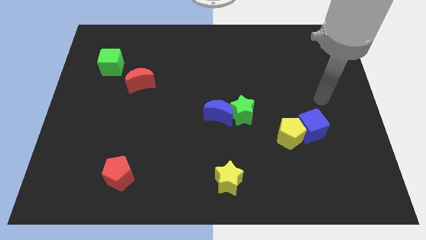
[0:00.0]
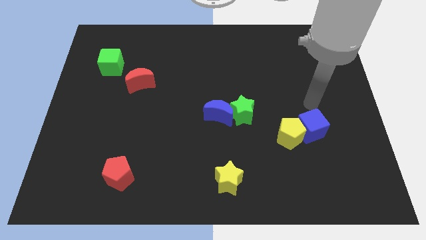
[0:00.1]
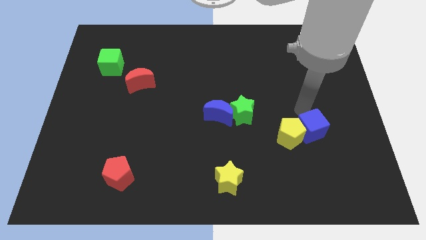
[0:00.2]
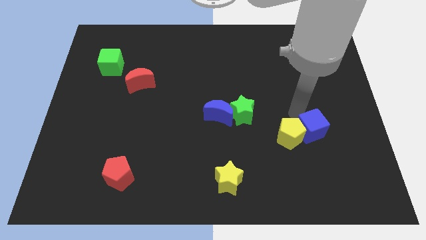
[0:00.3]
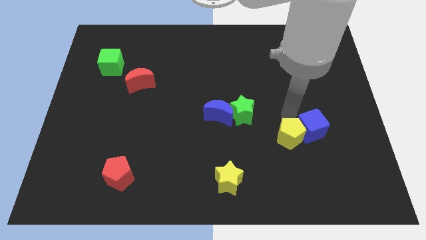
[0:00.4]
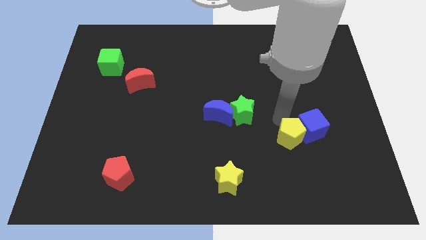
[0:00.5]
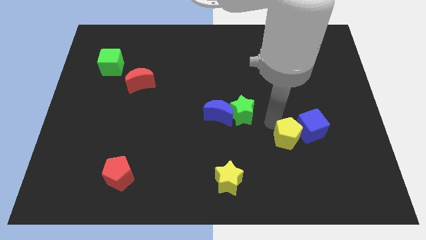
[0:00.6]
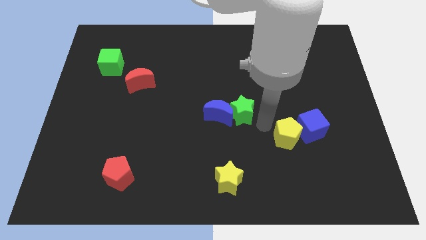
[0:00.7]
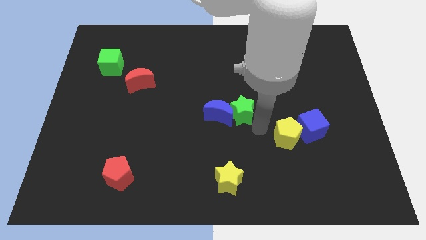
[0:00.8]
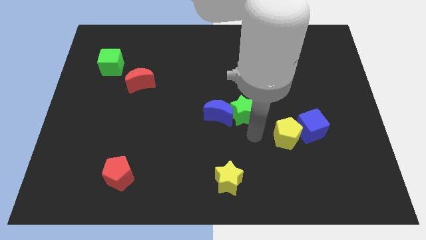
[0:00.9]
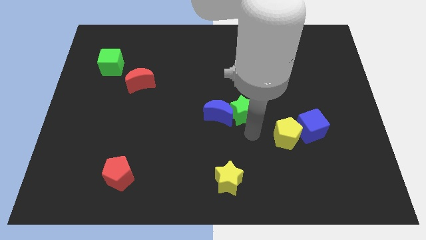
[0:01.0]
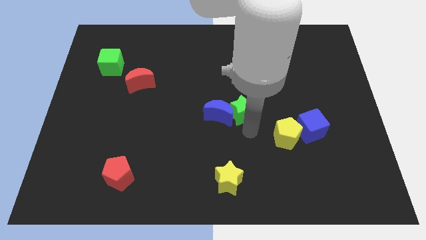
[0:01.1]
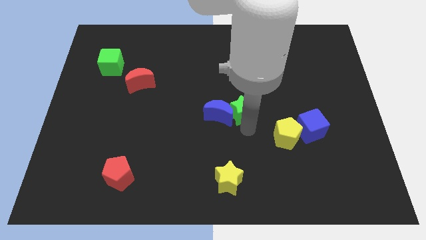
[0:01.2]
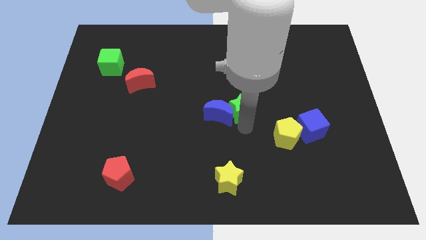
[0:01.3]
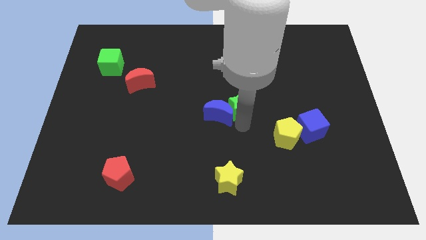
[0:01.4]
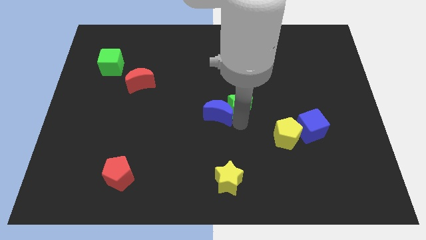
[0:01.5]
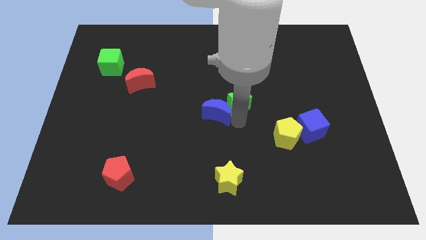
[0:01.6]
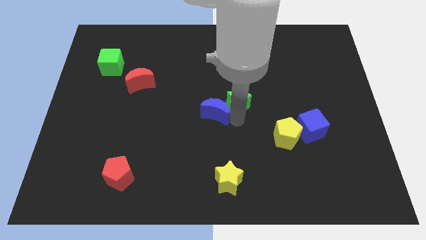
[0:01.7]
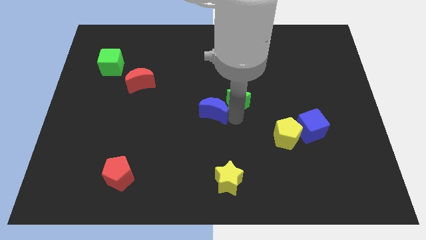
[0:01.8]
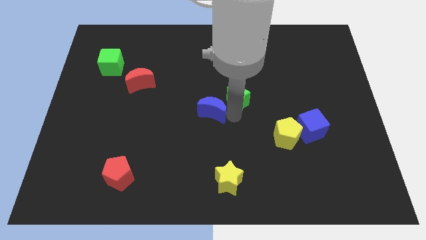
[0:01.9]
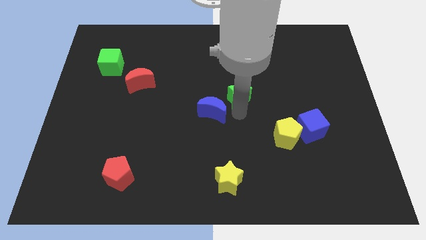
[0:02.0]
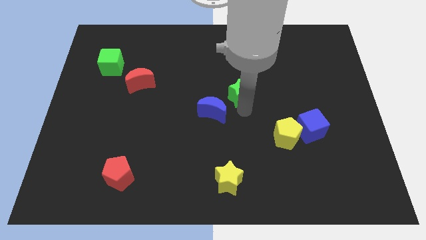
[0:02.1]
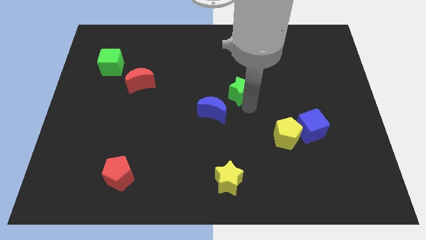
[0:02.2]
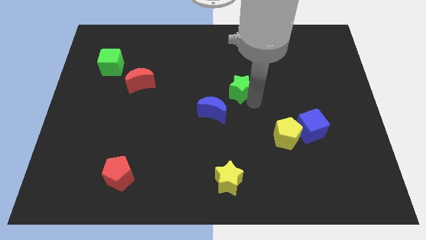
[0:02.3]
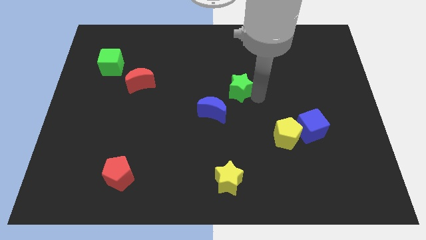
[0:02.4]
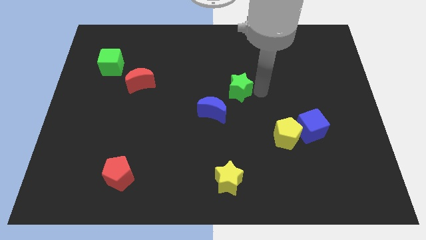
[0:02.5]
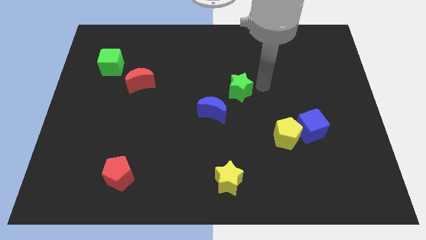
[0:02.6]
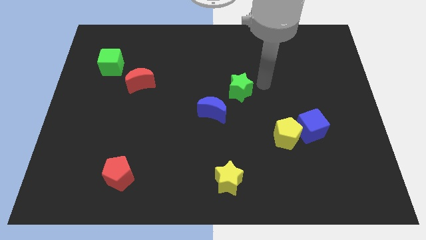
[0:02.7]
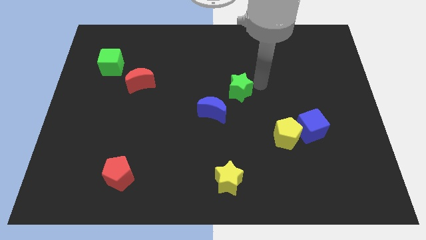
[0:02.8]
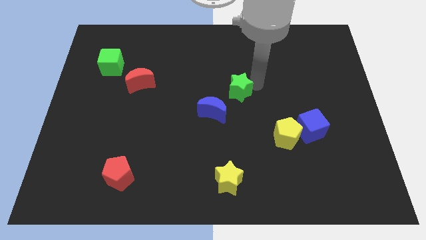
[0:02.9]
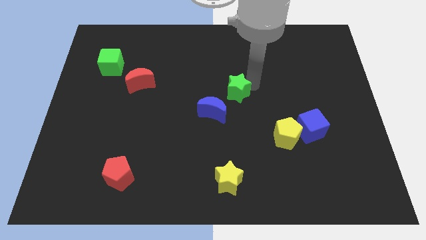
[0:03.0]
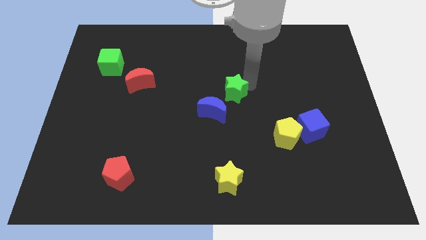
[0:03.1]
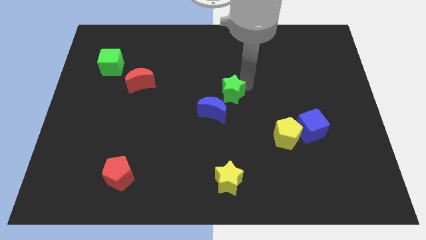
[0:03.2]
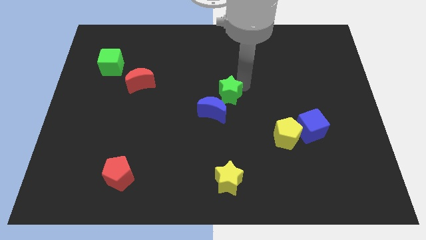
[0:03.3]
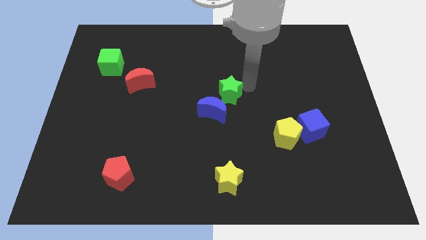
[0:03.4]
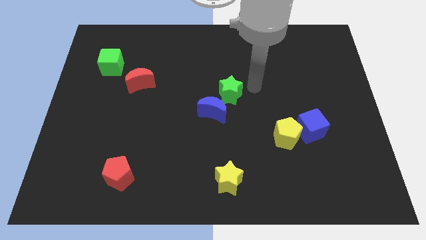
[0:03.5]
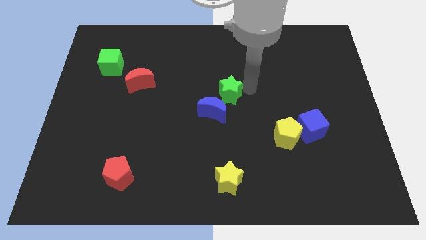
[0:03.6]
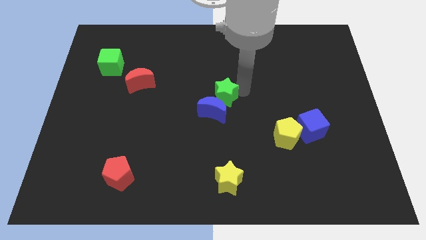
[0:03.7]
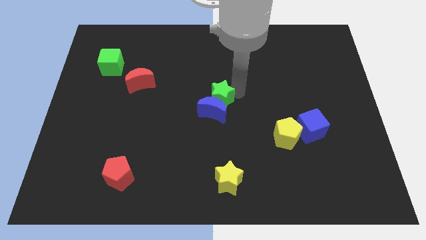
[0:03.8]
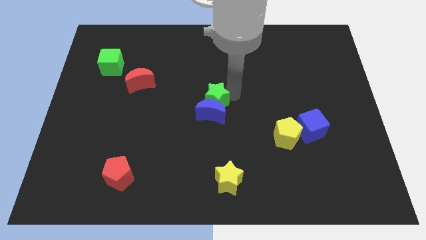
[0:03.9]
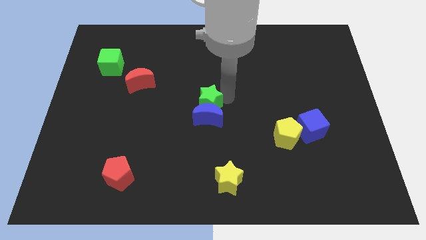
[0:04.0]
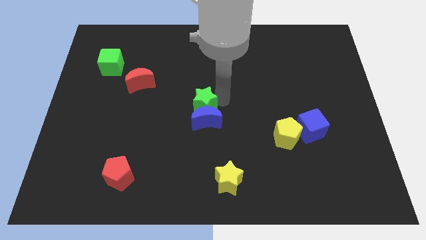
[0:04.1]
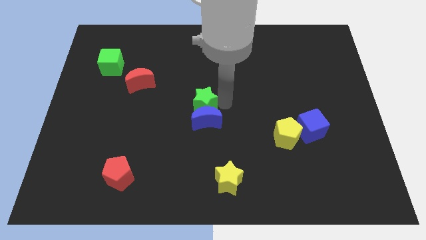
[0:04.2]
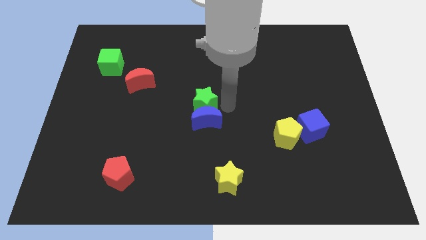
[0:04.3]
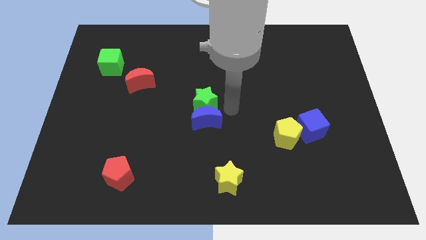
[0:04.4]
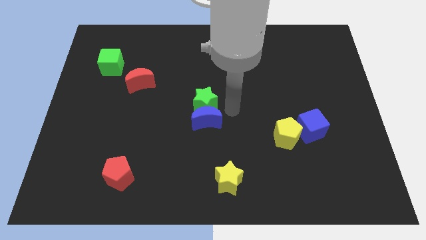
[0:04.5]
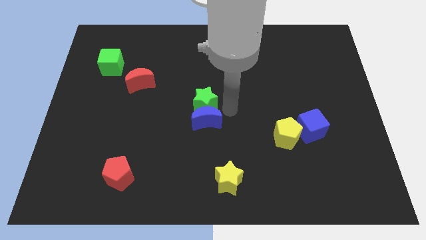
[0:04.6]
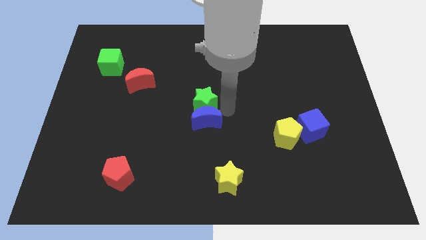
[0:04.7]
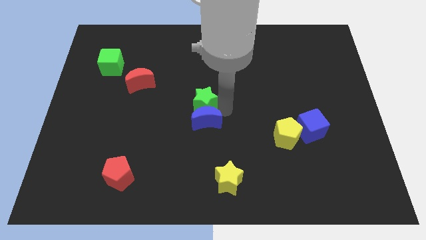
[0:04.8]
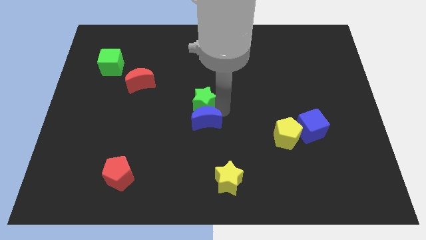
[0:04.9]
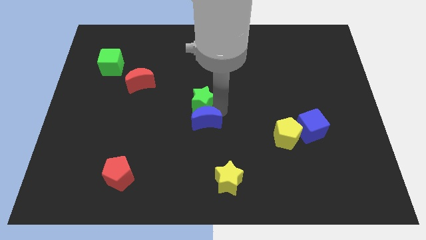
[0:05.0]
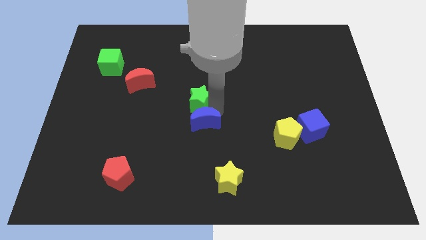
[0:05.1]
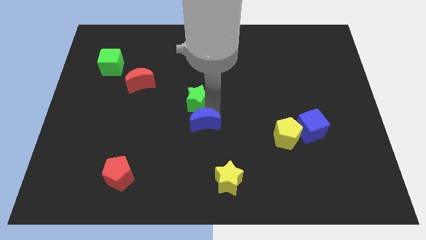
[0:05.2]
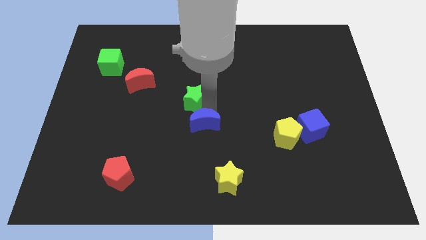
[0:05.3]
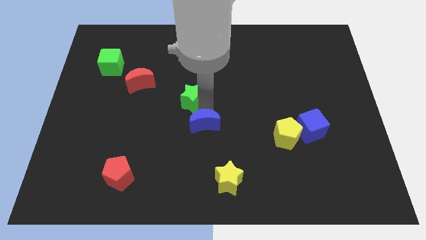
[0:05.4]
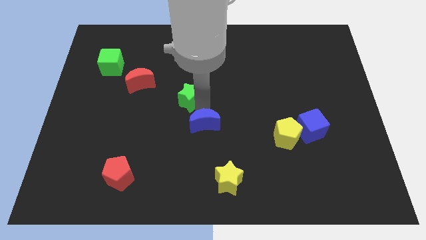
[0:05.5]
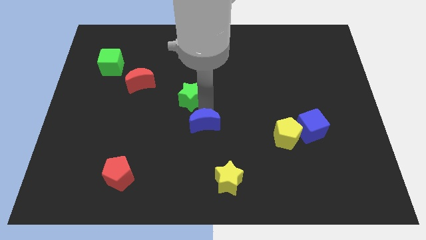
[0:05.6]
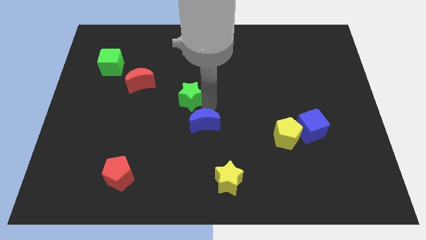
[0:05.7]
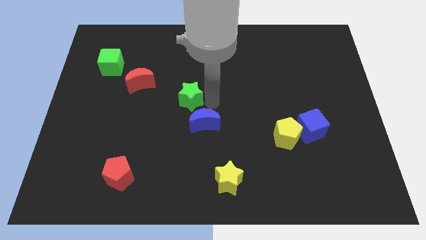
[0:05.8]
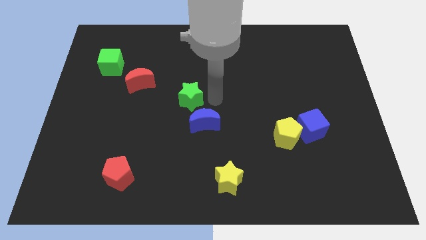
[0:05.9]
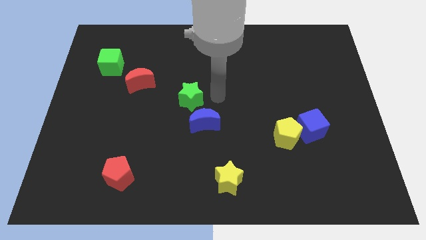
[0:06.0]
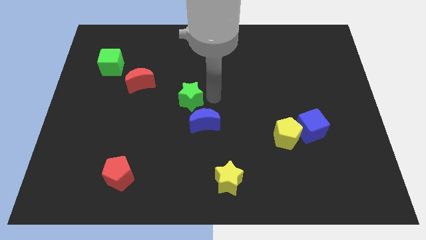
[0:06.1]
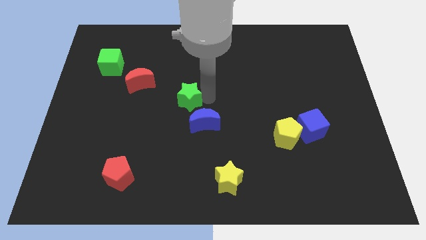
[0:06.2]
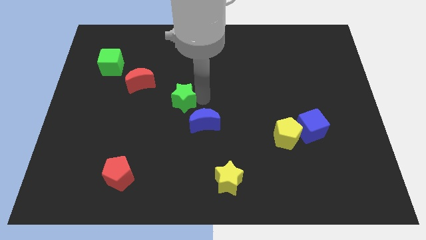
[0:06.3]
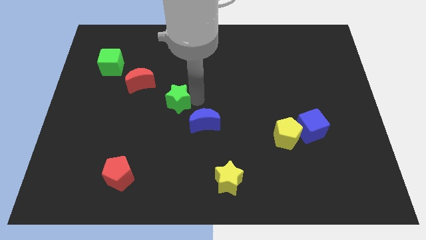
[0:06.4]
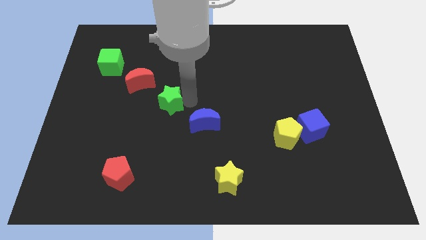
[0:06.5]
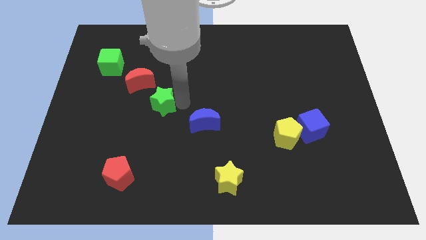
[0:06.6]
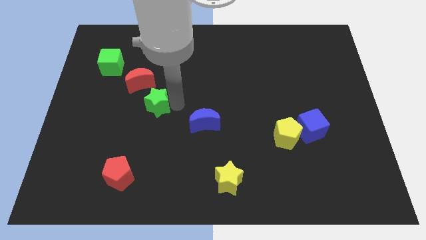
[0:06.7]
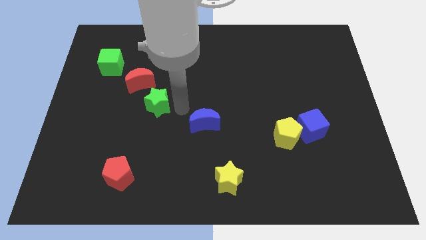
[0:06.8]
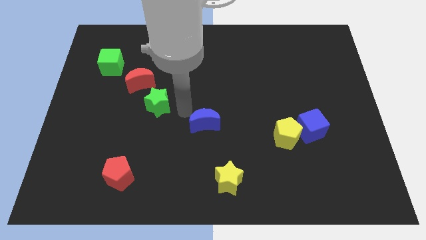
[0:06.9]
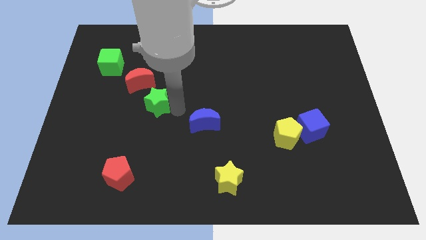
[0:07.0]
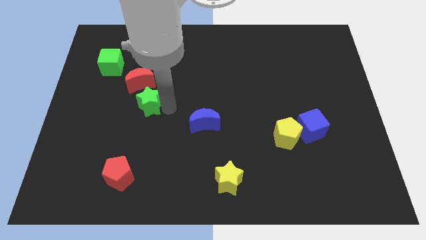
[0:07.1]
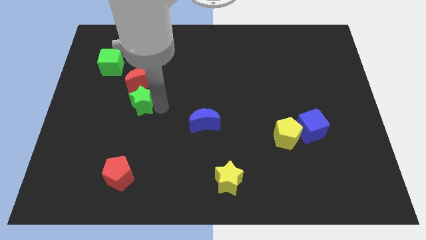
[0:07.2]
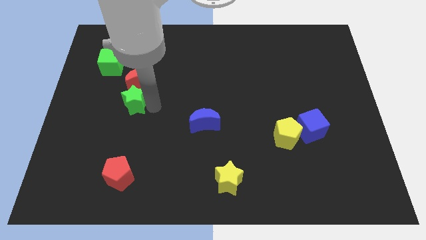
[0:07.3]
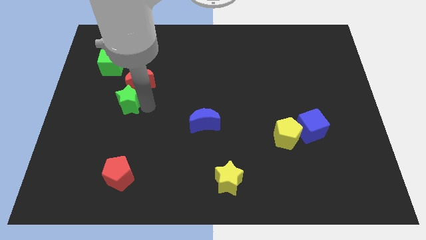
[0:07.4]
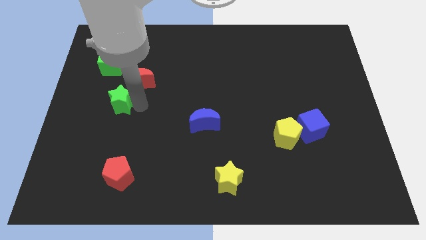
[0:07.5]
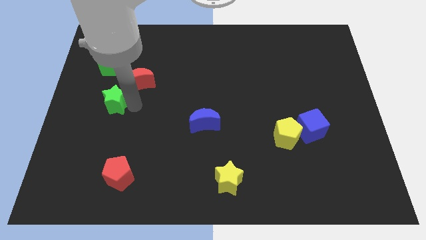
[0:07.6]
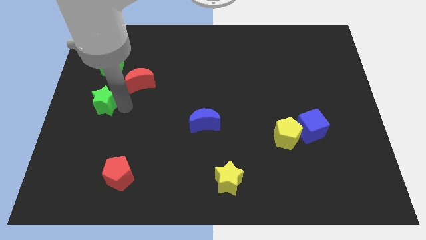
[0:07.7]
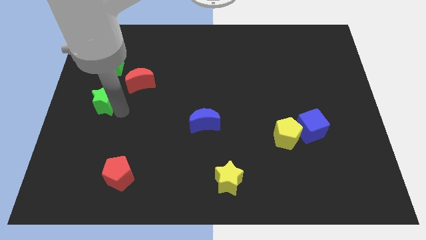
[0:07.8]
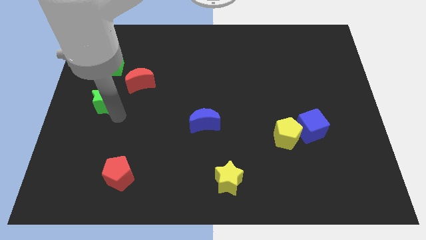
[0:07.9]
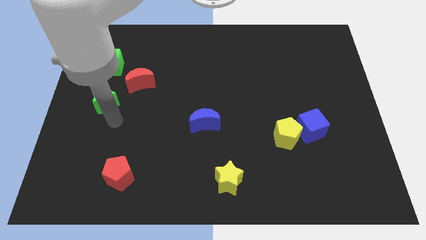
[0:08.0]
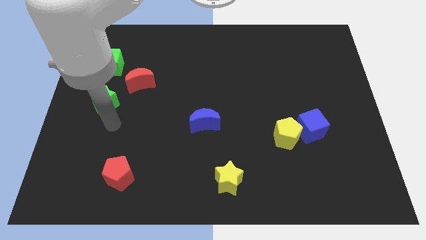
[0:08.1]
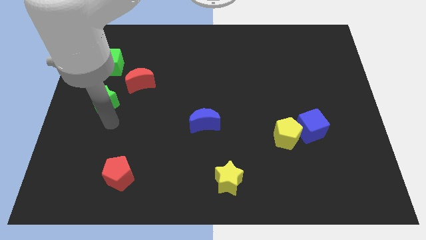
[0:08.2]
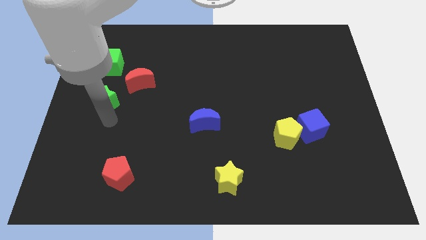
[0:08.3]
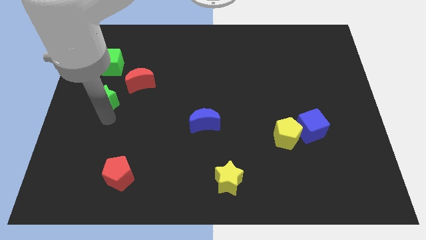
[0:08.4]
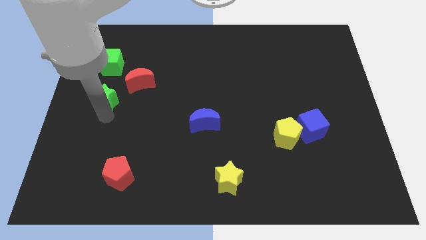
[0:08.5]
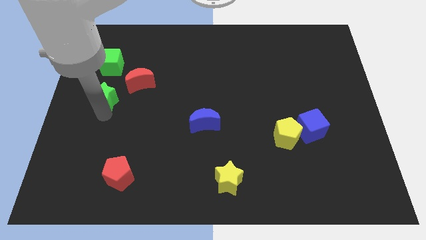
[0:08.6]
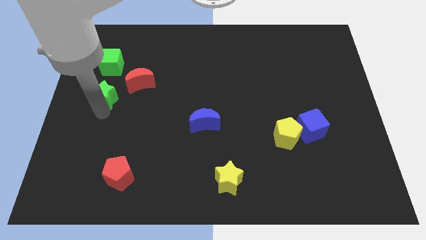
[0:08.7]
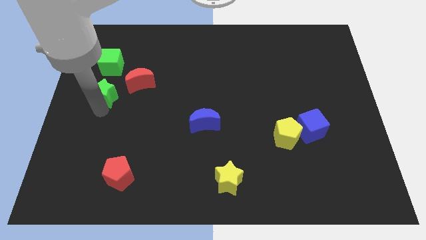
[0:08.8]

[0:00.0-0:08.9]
move the green star left of the red moon
